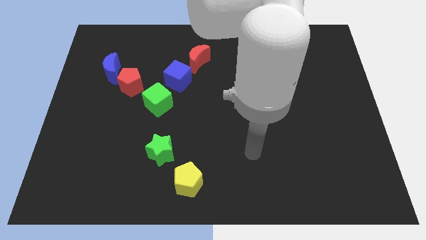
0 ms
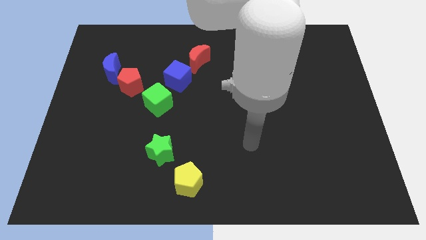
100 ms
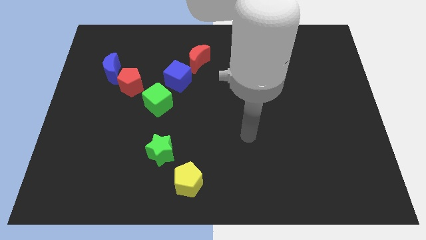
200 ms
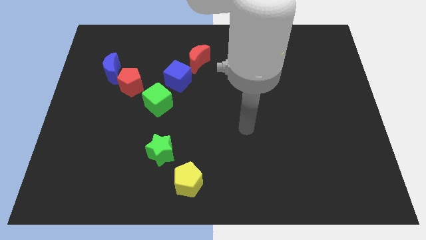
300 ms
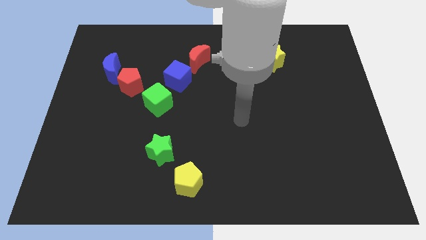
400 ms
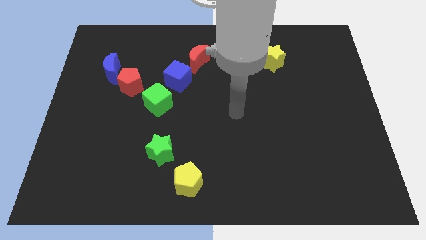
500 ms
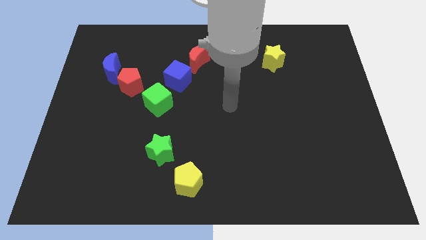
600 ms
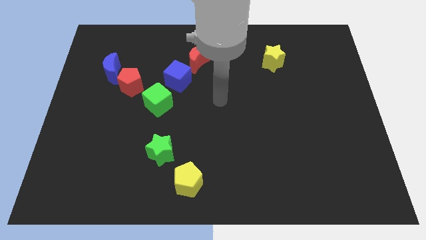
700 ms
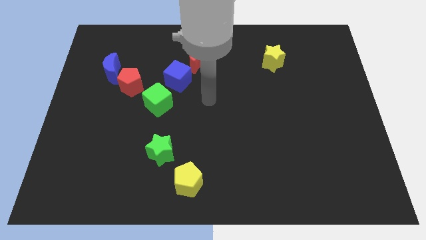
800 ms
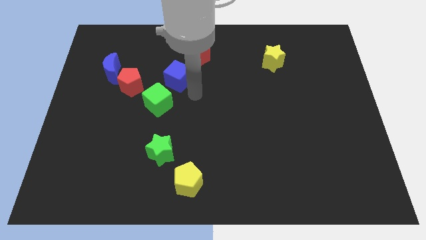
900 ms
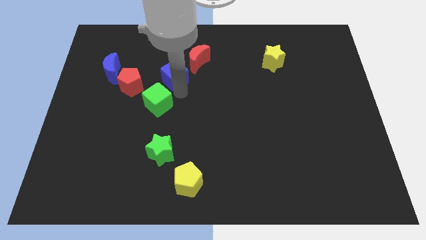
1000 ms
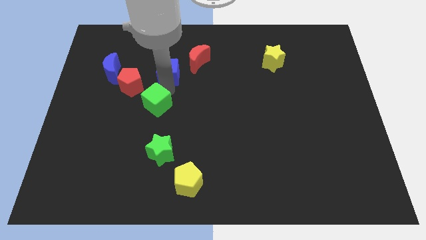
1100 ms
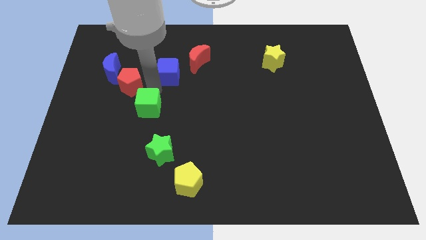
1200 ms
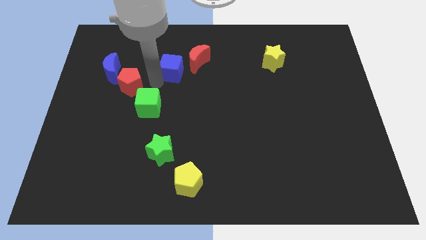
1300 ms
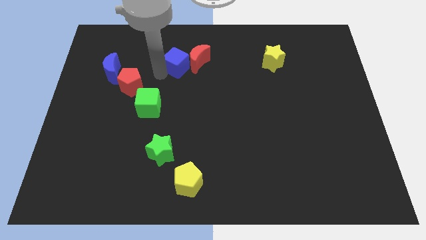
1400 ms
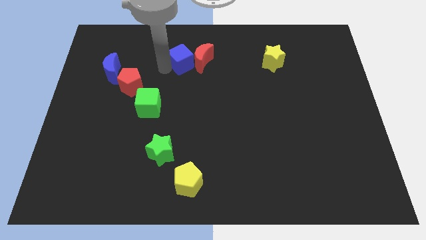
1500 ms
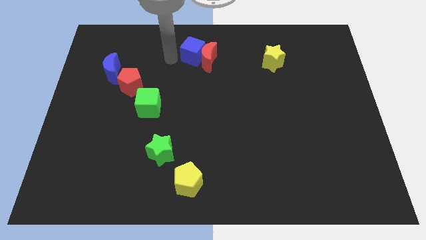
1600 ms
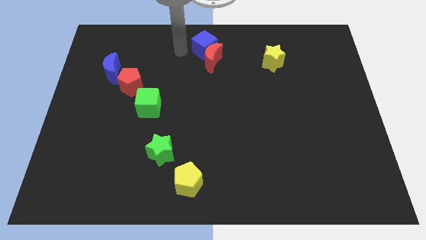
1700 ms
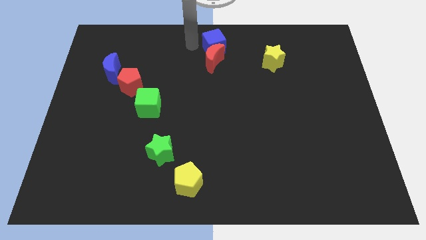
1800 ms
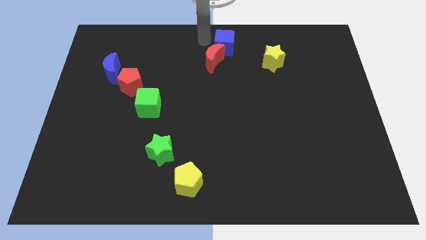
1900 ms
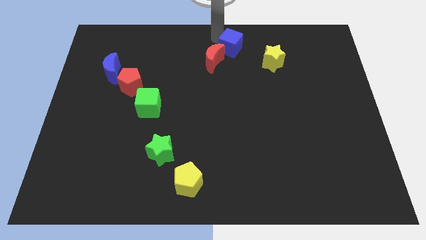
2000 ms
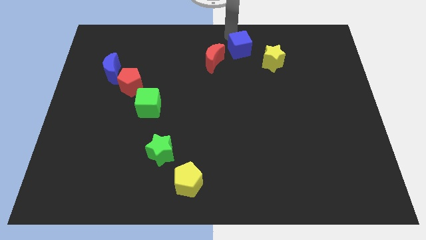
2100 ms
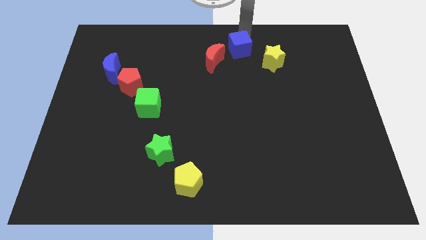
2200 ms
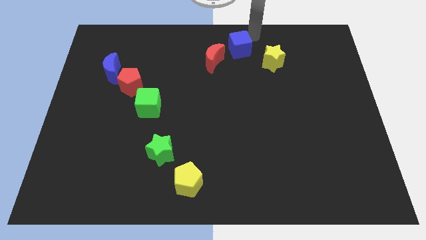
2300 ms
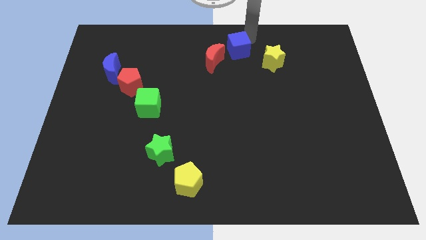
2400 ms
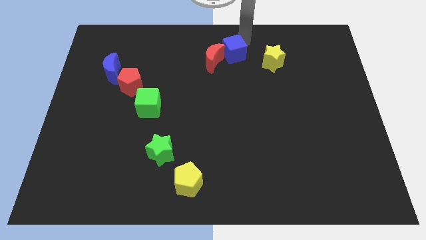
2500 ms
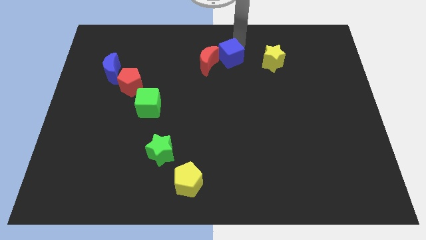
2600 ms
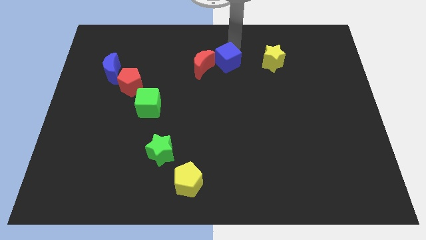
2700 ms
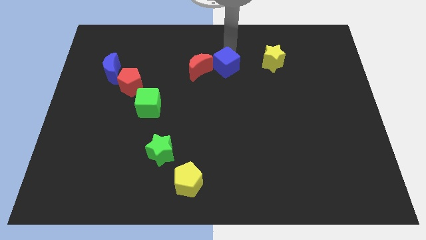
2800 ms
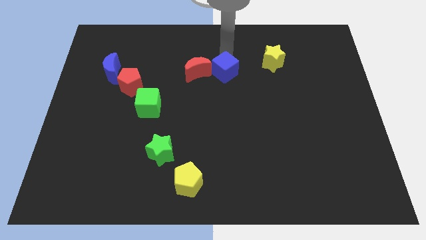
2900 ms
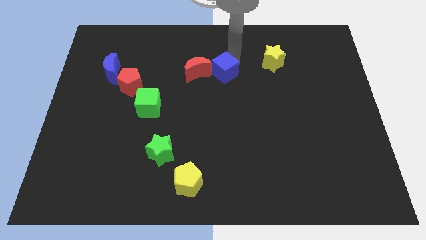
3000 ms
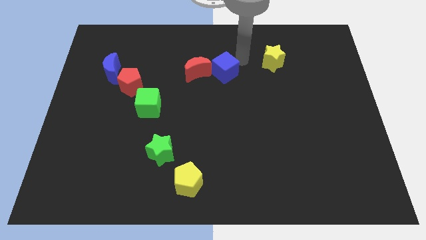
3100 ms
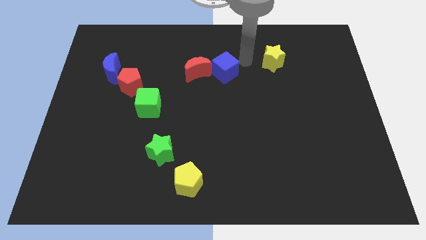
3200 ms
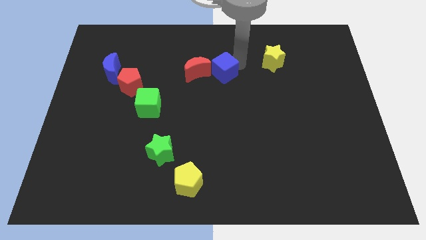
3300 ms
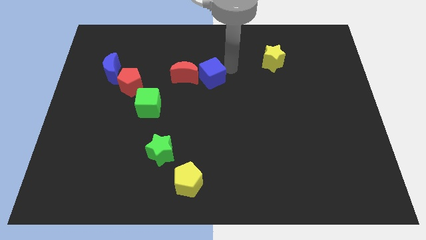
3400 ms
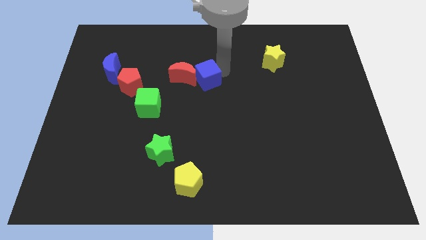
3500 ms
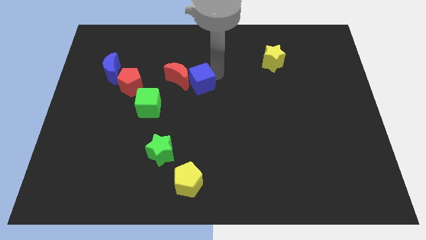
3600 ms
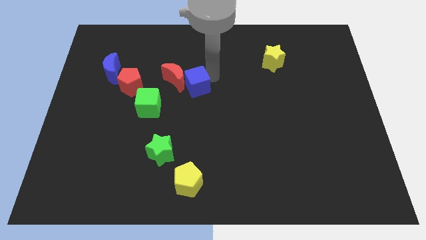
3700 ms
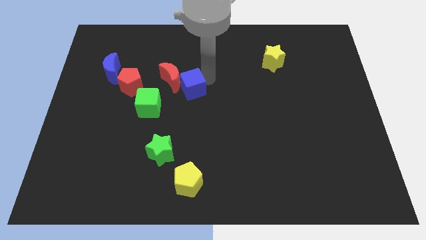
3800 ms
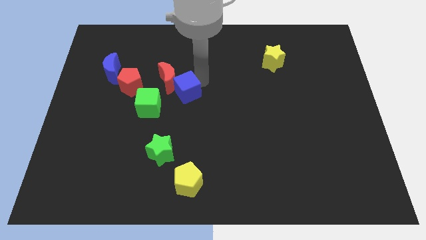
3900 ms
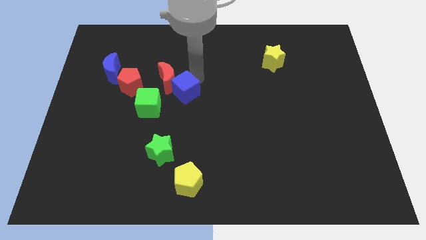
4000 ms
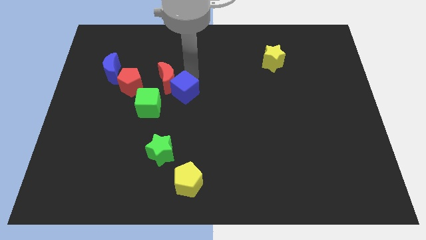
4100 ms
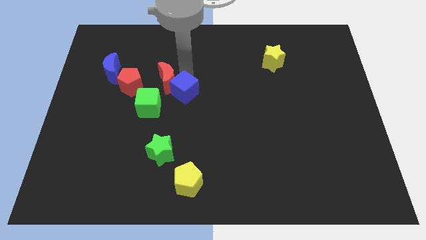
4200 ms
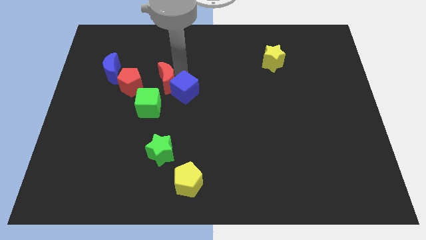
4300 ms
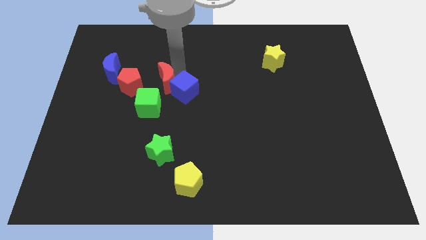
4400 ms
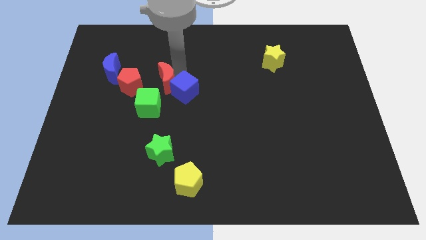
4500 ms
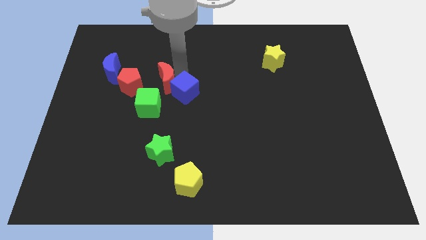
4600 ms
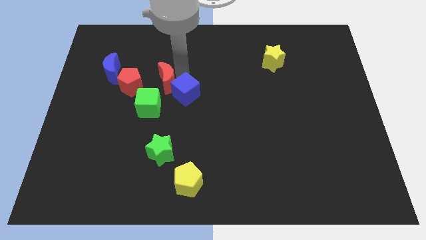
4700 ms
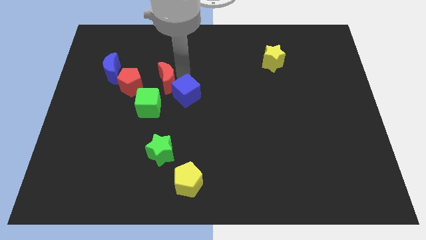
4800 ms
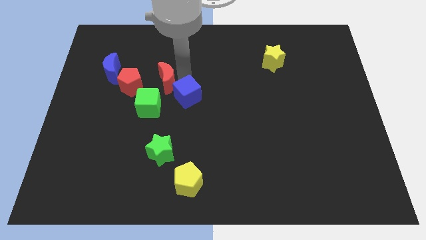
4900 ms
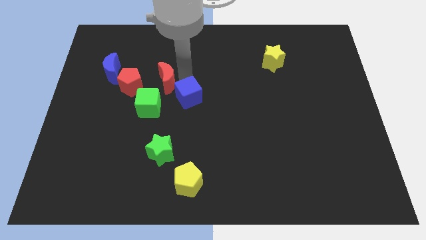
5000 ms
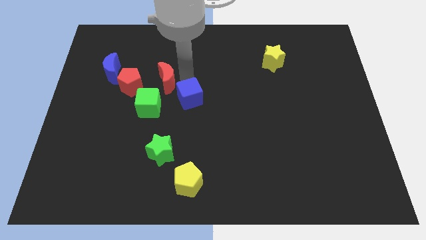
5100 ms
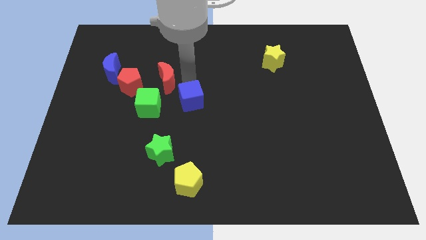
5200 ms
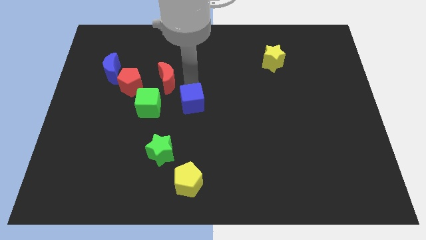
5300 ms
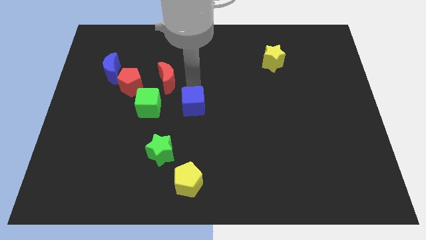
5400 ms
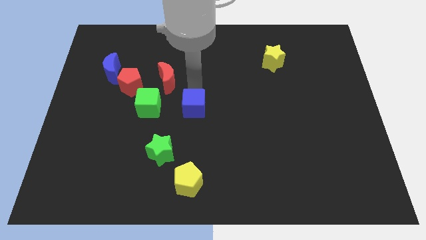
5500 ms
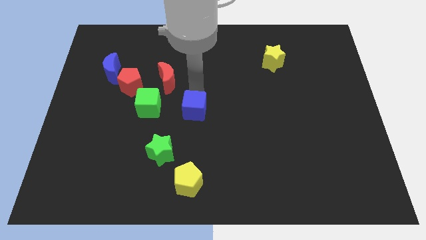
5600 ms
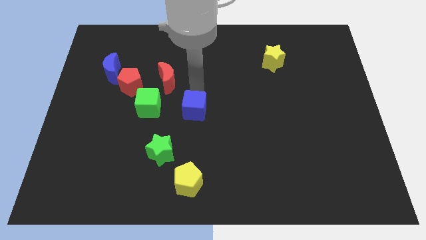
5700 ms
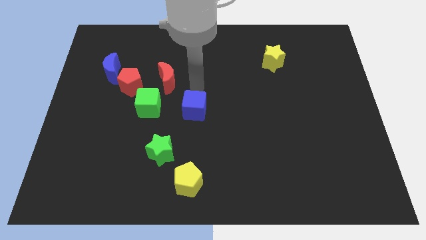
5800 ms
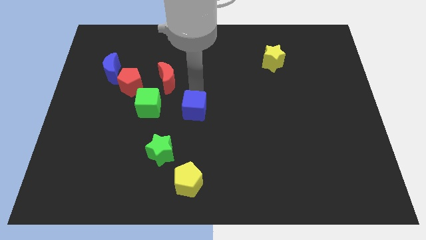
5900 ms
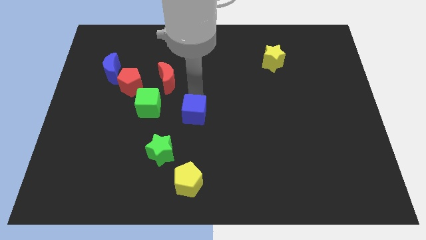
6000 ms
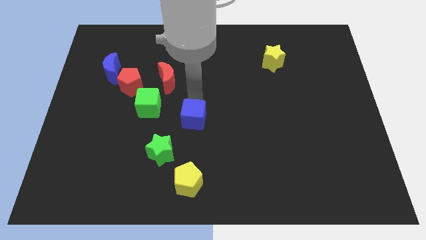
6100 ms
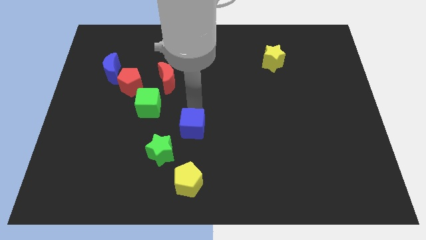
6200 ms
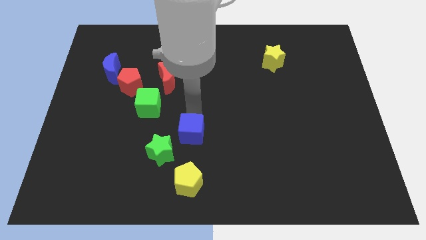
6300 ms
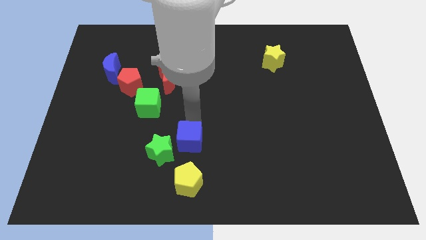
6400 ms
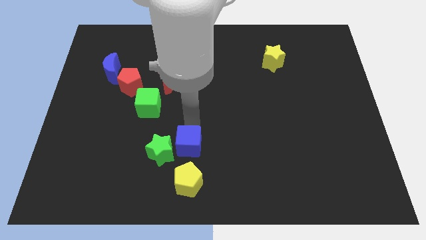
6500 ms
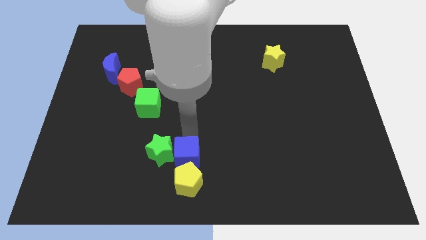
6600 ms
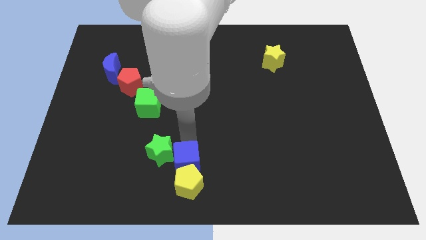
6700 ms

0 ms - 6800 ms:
push the blue cube close to the yellow pentagon

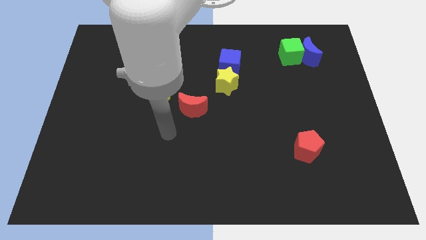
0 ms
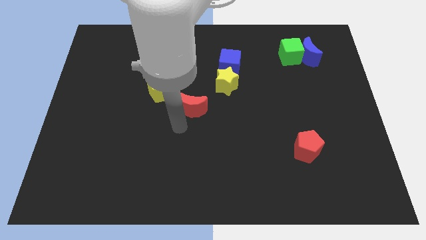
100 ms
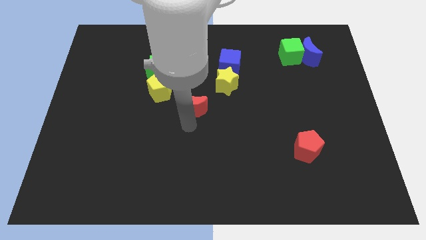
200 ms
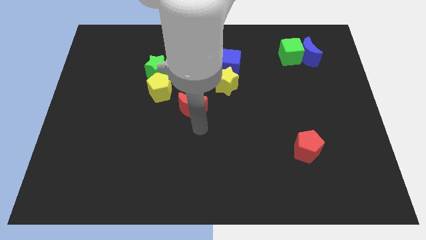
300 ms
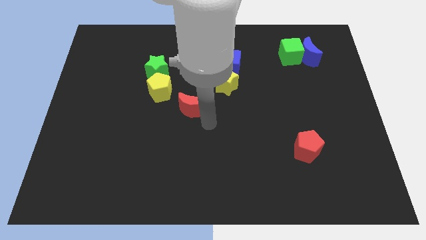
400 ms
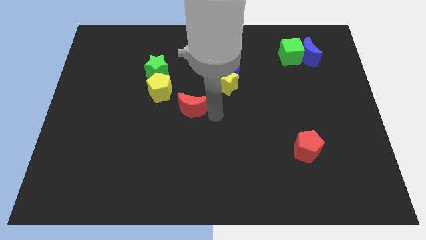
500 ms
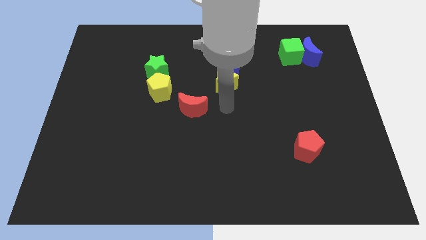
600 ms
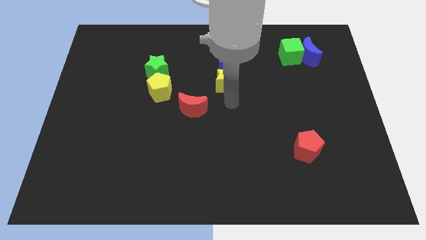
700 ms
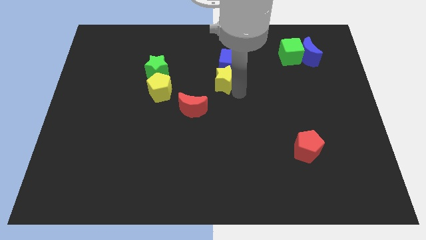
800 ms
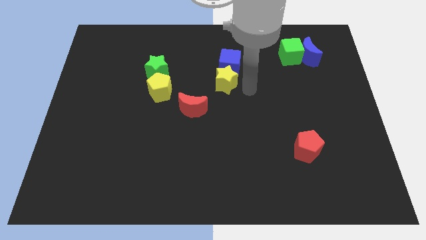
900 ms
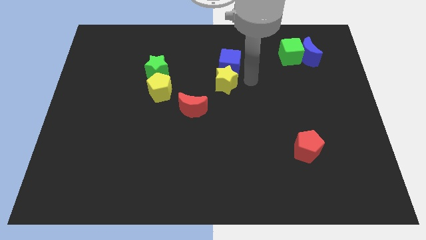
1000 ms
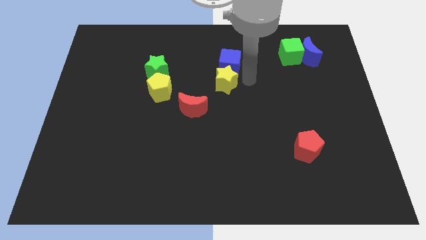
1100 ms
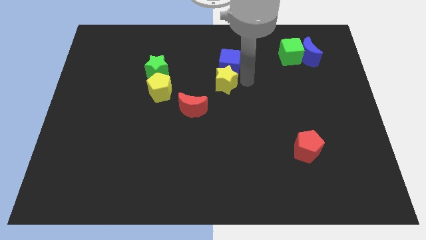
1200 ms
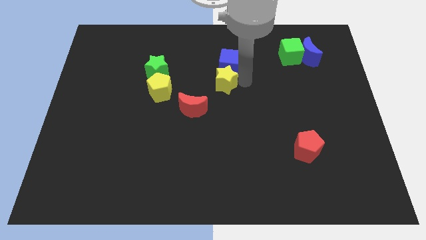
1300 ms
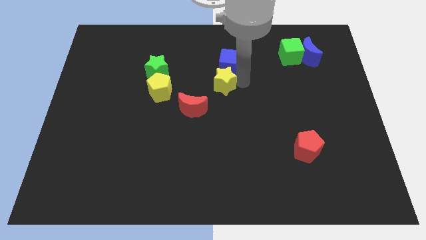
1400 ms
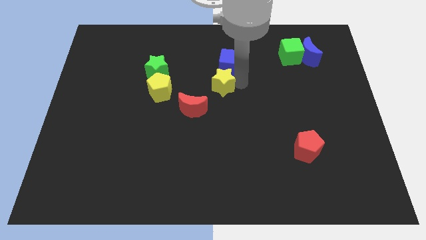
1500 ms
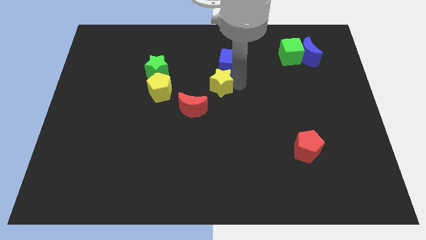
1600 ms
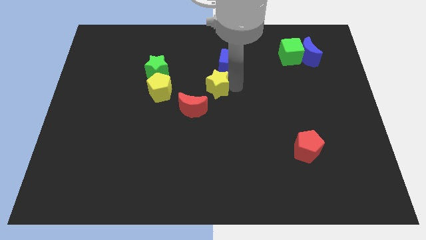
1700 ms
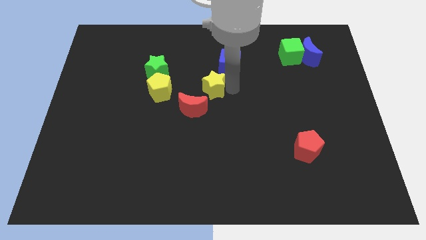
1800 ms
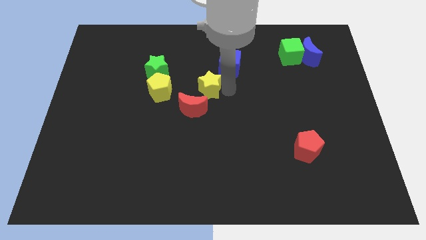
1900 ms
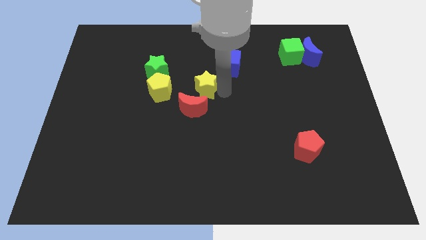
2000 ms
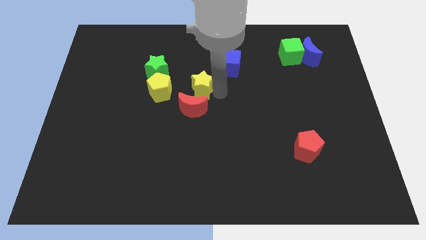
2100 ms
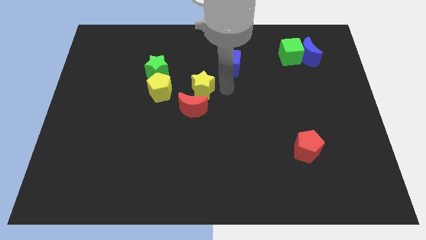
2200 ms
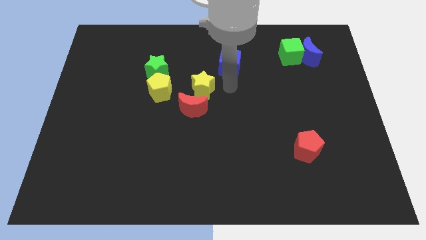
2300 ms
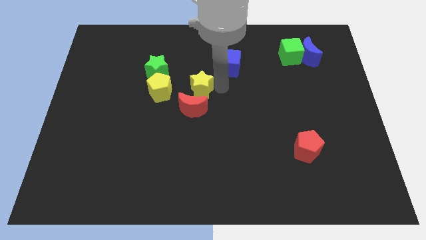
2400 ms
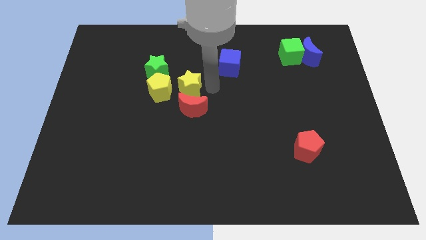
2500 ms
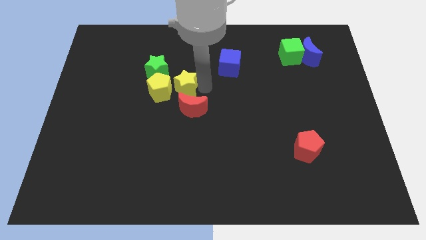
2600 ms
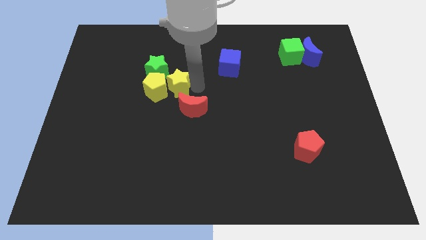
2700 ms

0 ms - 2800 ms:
move the yellow star to the yellow pentagon
